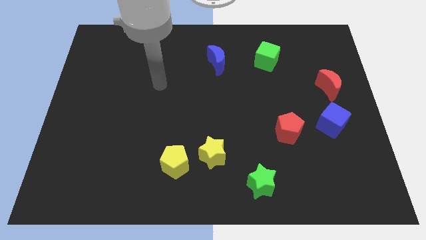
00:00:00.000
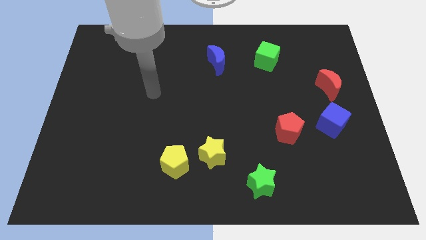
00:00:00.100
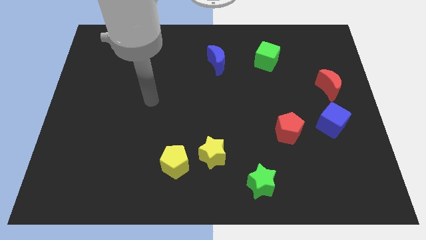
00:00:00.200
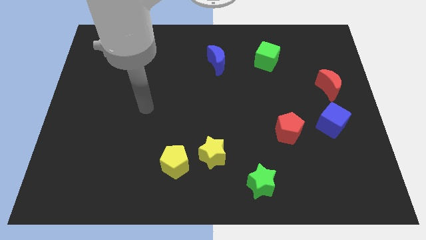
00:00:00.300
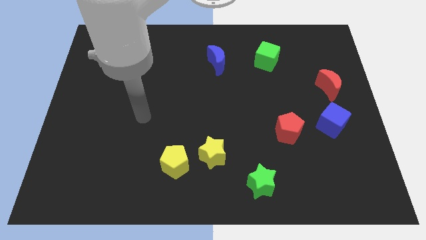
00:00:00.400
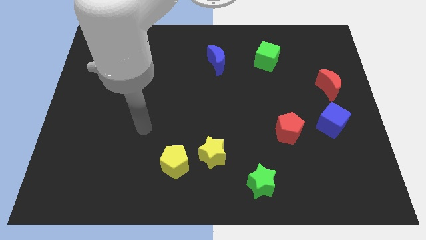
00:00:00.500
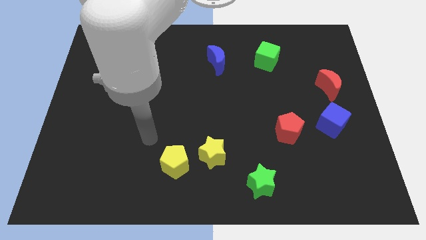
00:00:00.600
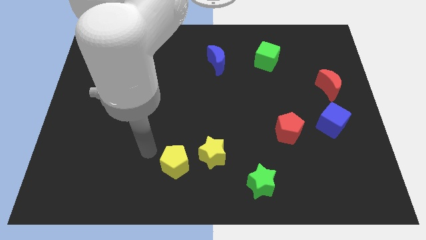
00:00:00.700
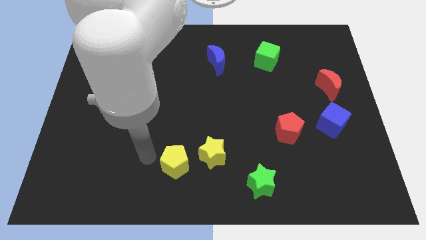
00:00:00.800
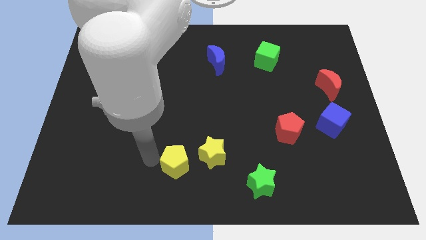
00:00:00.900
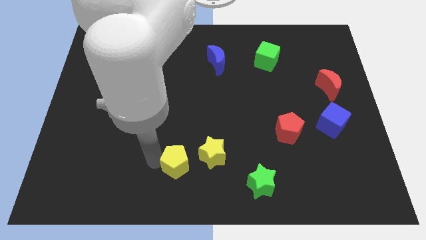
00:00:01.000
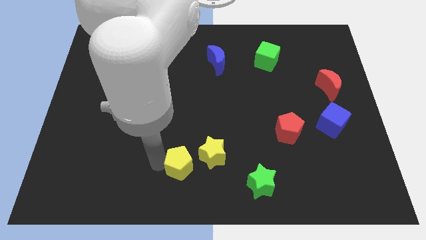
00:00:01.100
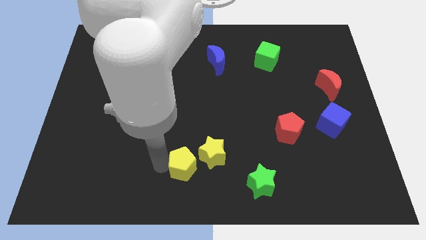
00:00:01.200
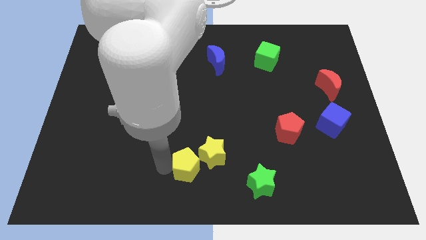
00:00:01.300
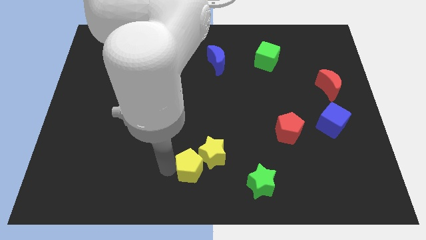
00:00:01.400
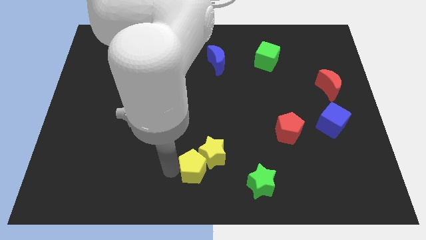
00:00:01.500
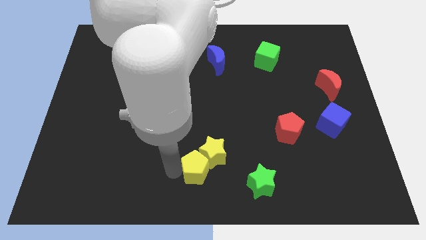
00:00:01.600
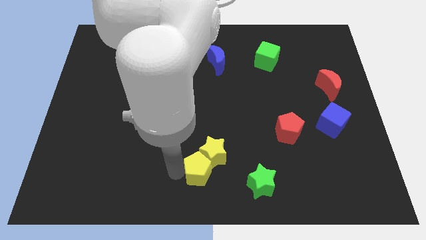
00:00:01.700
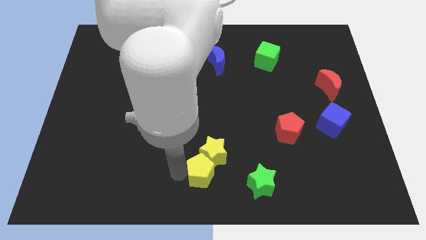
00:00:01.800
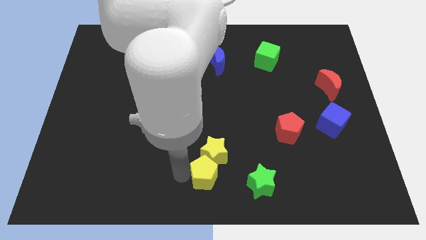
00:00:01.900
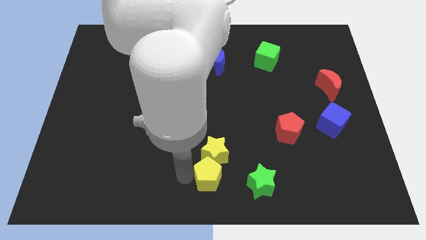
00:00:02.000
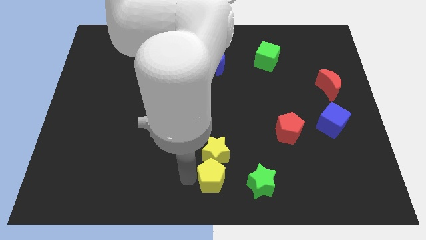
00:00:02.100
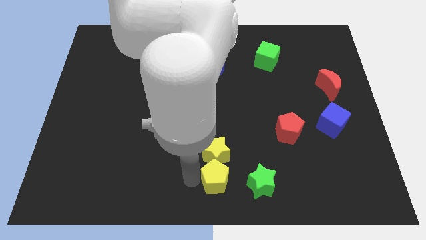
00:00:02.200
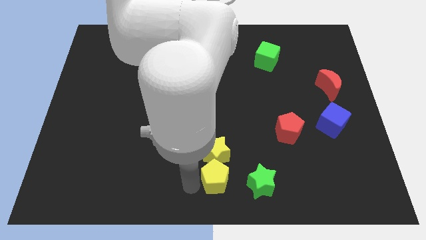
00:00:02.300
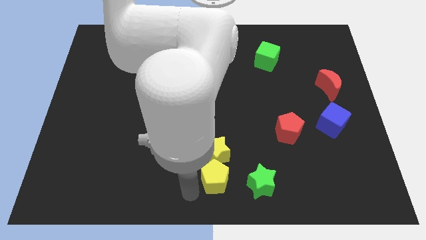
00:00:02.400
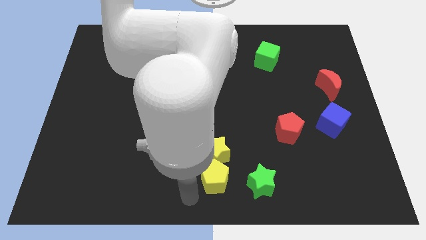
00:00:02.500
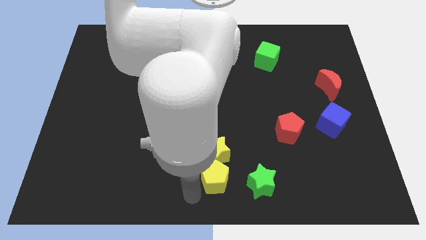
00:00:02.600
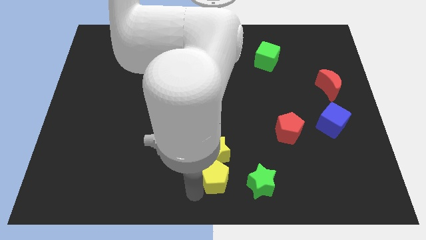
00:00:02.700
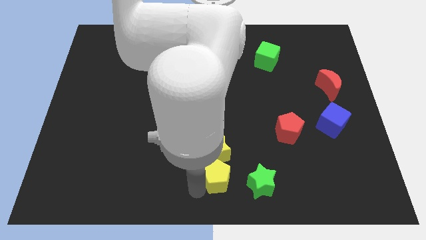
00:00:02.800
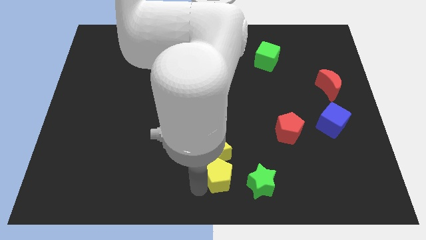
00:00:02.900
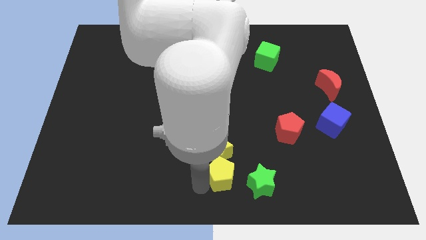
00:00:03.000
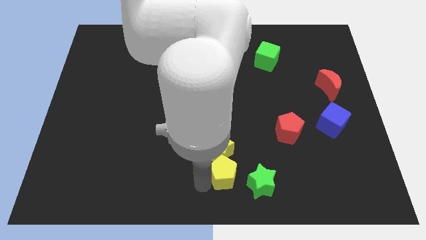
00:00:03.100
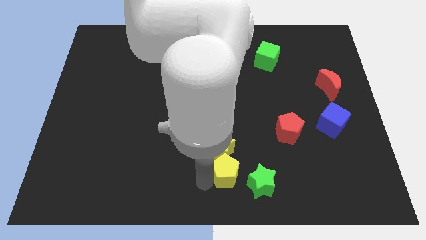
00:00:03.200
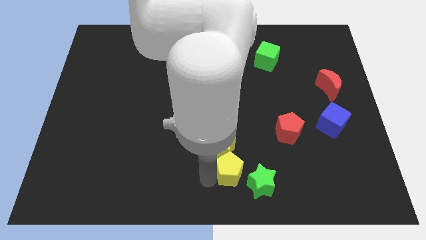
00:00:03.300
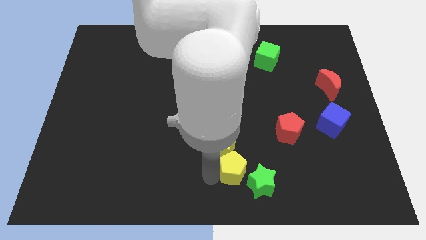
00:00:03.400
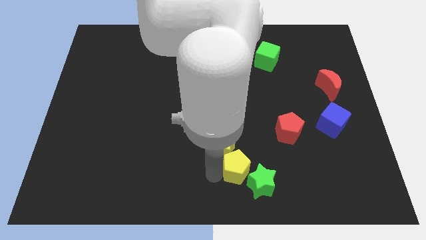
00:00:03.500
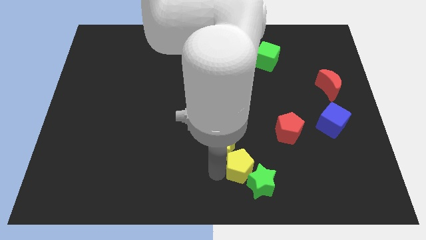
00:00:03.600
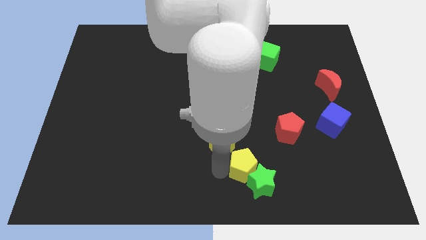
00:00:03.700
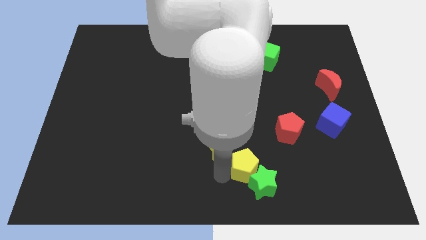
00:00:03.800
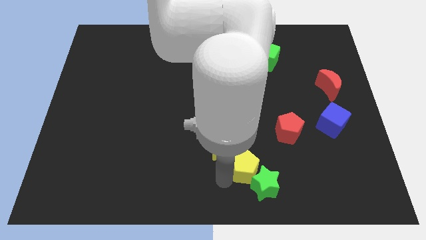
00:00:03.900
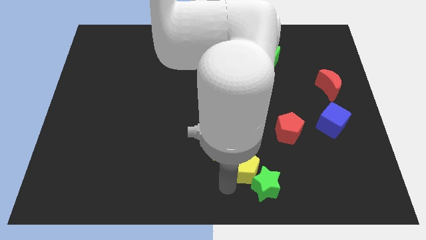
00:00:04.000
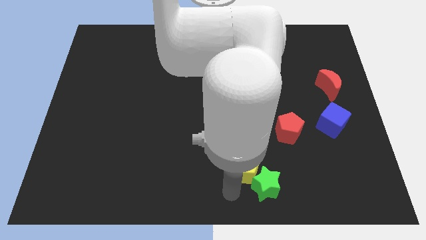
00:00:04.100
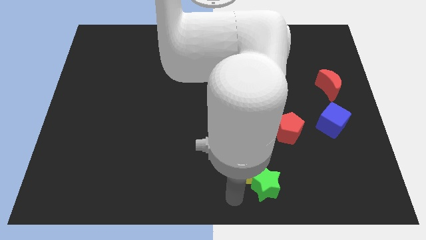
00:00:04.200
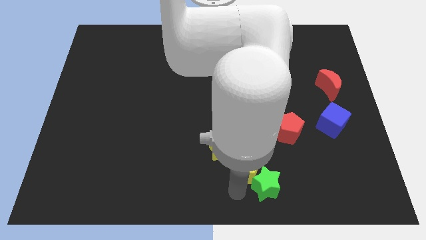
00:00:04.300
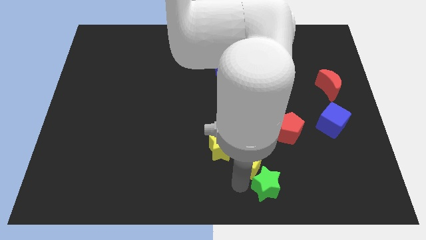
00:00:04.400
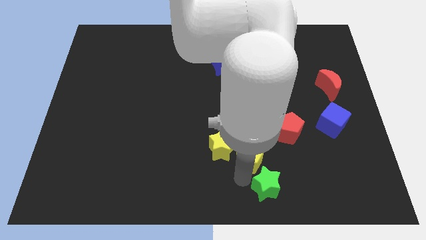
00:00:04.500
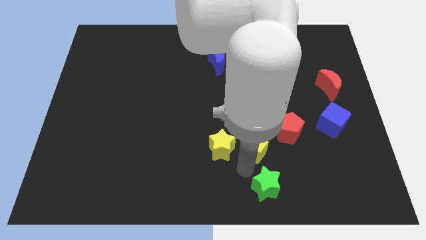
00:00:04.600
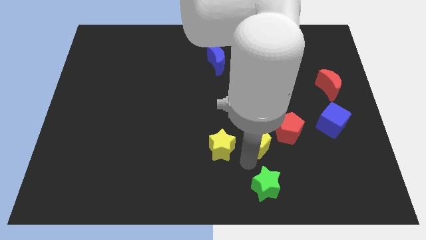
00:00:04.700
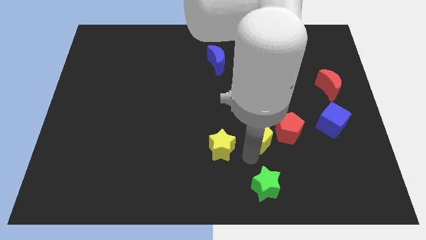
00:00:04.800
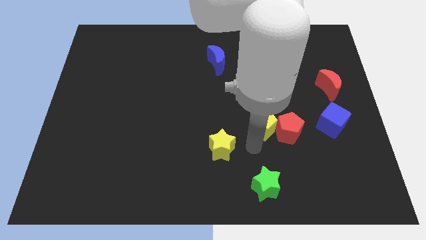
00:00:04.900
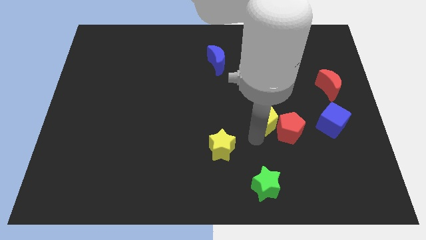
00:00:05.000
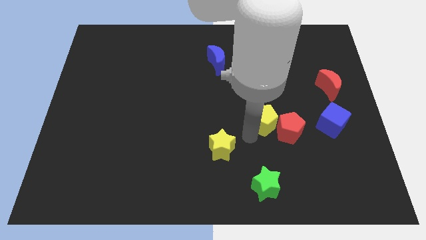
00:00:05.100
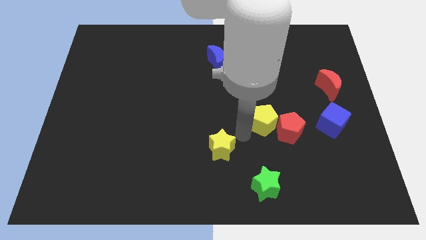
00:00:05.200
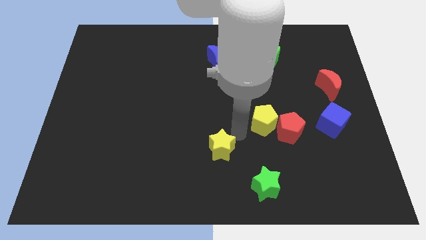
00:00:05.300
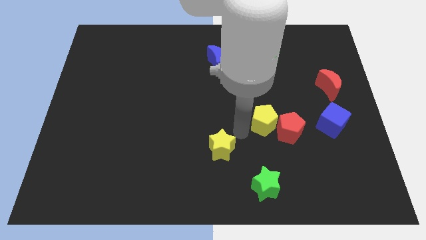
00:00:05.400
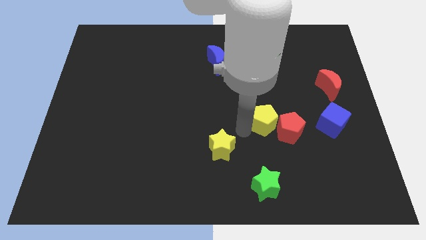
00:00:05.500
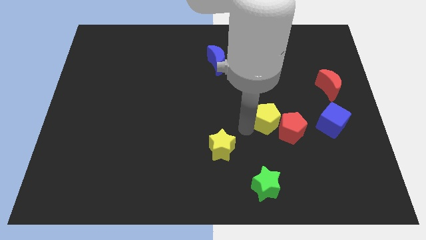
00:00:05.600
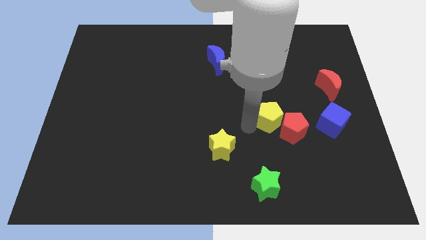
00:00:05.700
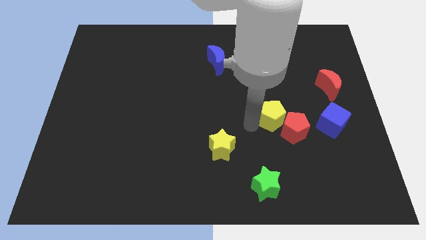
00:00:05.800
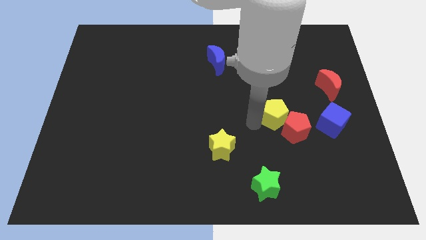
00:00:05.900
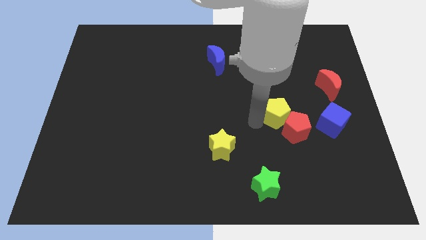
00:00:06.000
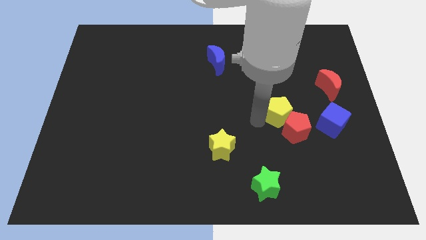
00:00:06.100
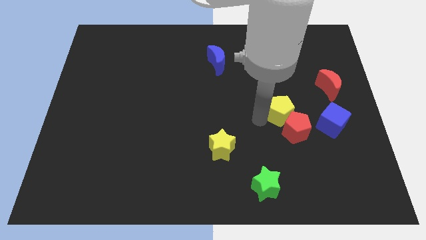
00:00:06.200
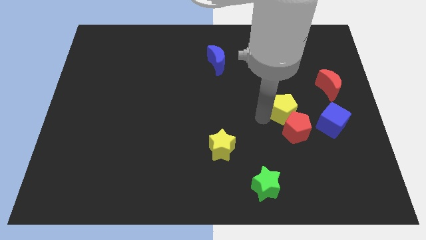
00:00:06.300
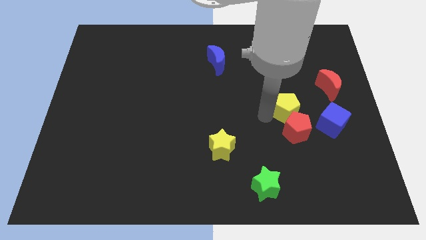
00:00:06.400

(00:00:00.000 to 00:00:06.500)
push the yellow pentagon to the top right side of the red pentagon

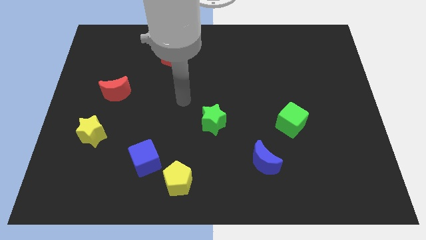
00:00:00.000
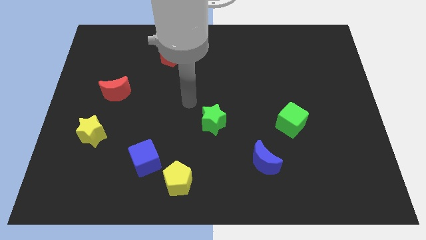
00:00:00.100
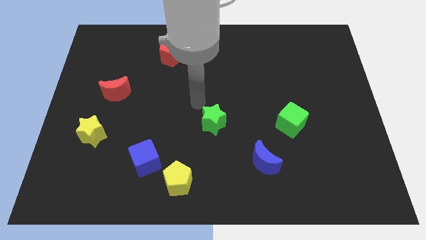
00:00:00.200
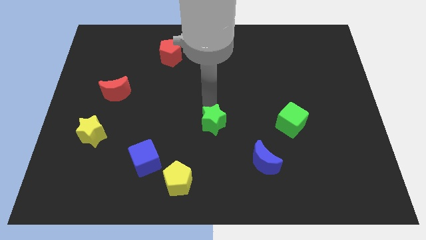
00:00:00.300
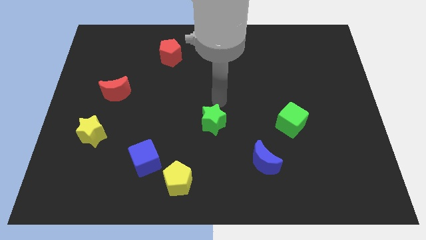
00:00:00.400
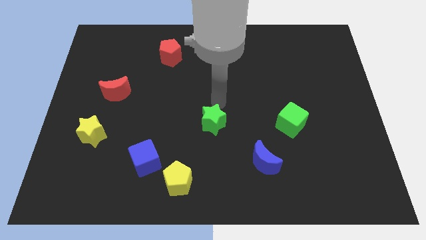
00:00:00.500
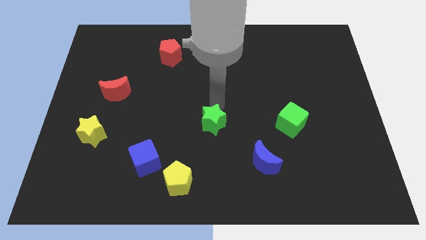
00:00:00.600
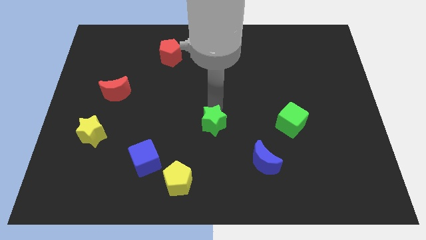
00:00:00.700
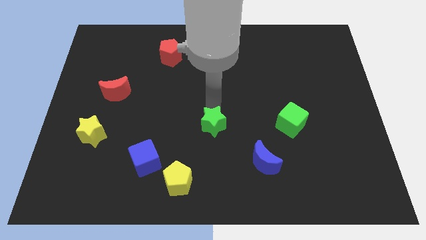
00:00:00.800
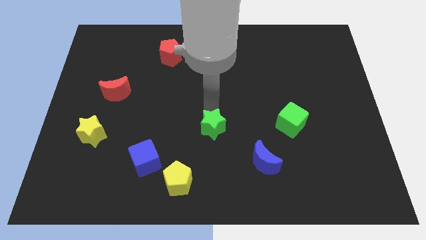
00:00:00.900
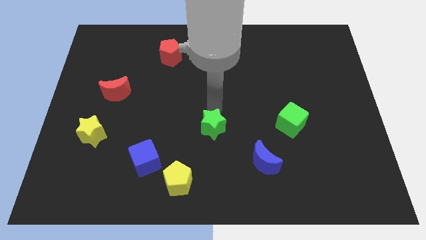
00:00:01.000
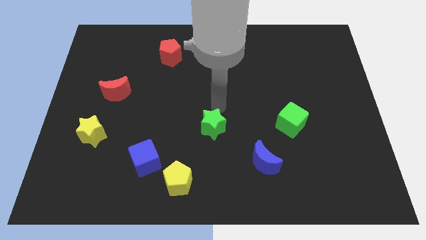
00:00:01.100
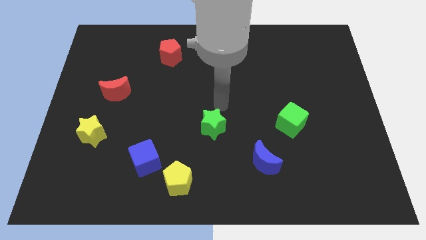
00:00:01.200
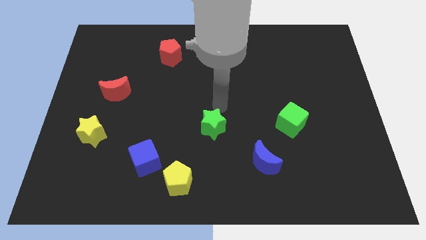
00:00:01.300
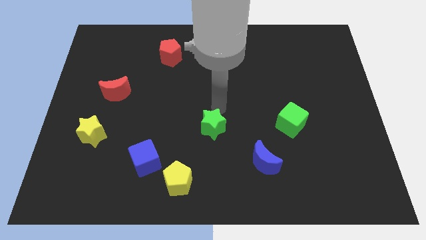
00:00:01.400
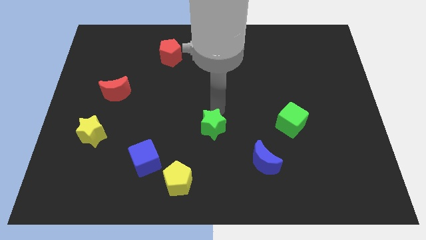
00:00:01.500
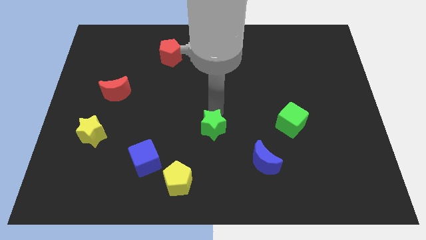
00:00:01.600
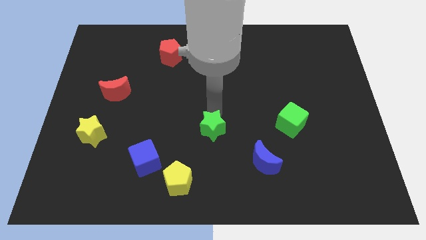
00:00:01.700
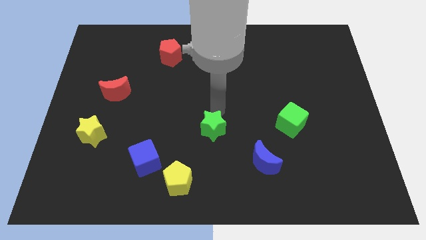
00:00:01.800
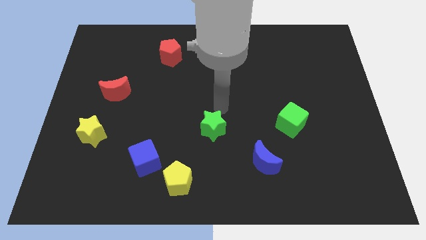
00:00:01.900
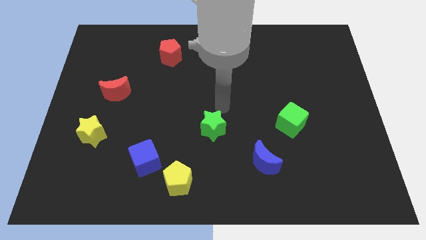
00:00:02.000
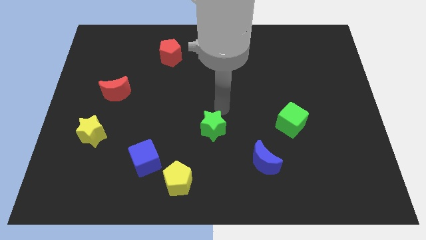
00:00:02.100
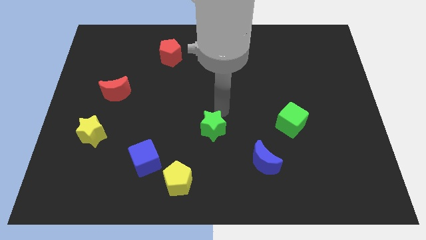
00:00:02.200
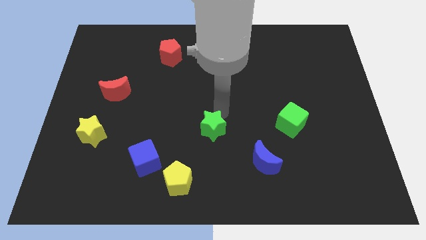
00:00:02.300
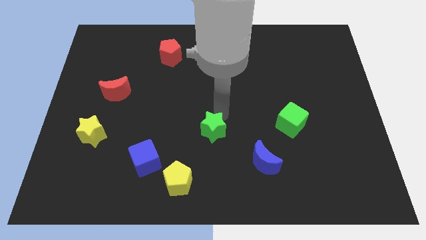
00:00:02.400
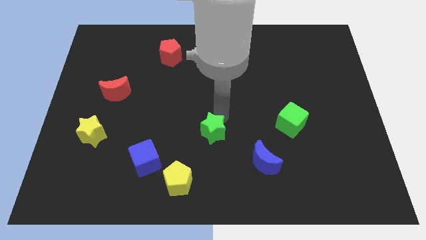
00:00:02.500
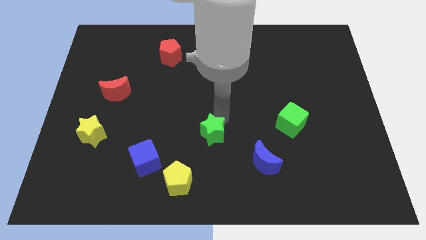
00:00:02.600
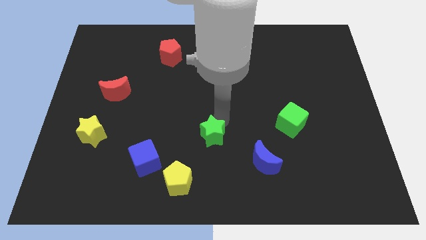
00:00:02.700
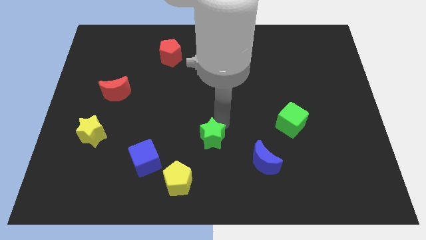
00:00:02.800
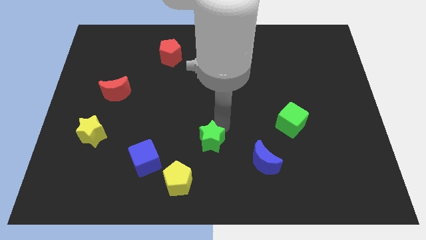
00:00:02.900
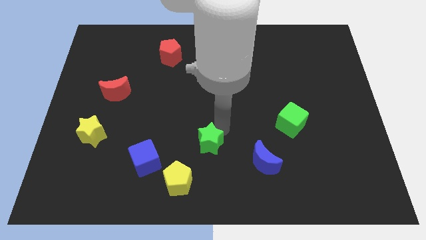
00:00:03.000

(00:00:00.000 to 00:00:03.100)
put the green star right of the blue cube
